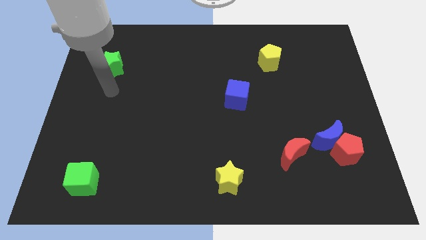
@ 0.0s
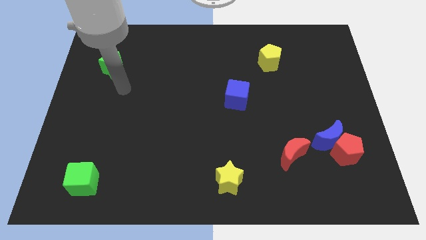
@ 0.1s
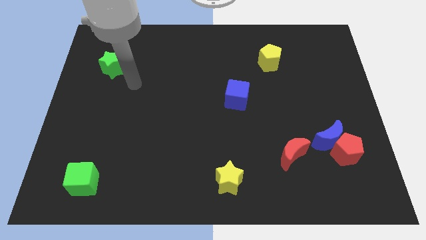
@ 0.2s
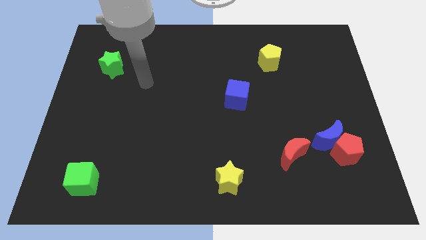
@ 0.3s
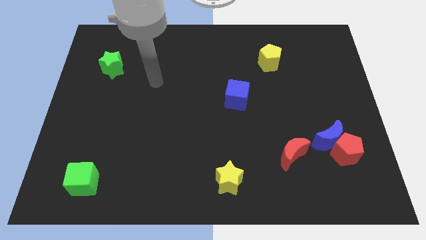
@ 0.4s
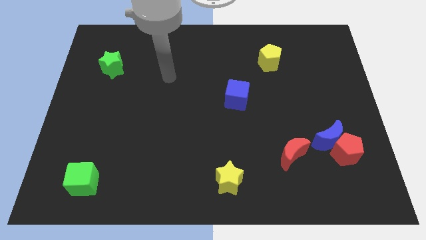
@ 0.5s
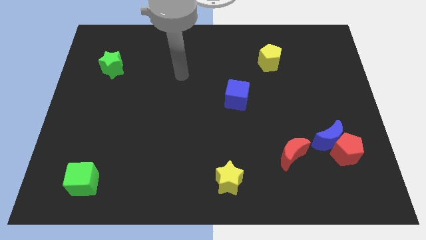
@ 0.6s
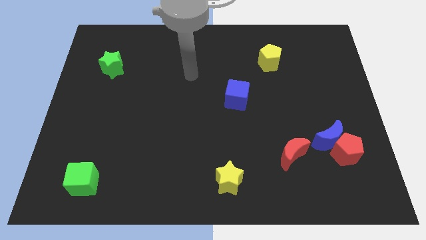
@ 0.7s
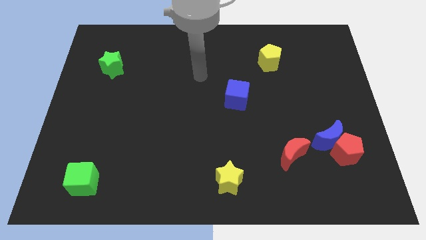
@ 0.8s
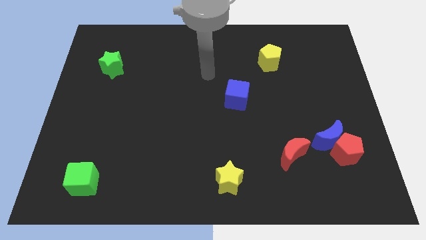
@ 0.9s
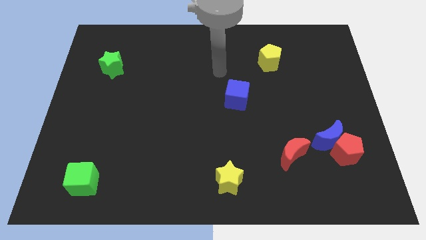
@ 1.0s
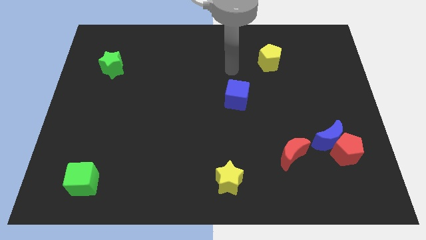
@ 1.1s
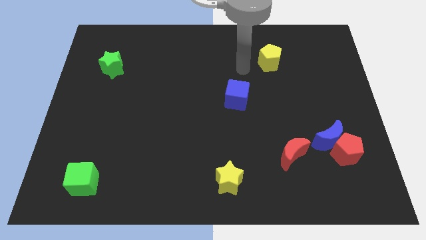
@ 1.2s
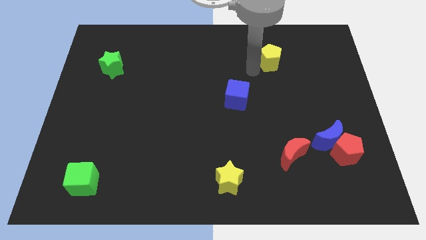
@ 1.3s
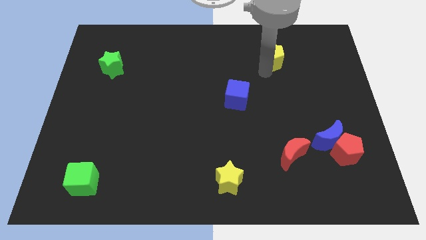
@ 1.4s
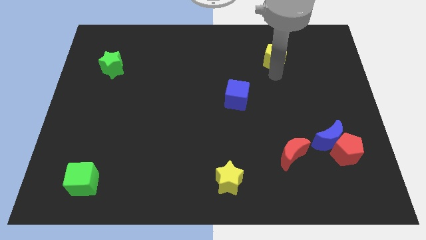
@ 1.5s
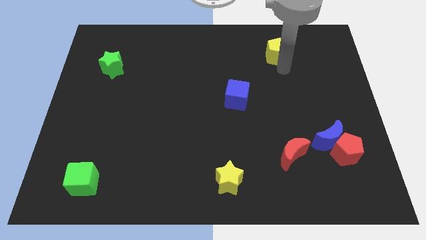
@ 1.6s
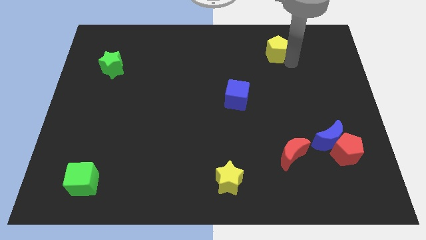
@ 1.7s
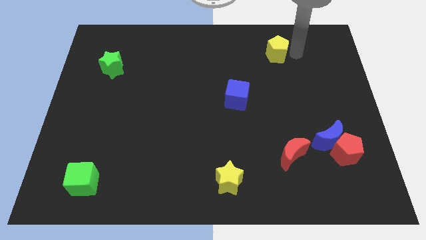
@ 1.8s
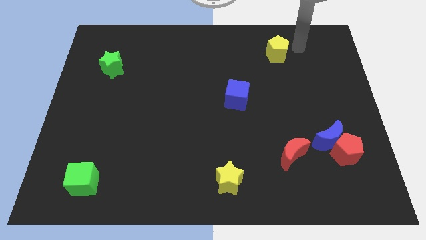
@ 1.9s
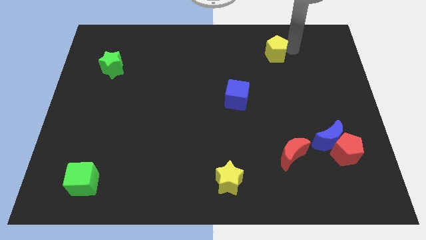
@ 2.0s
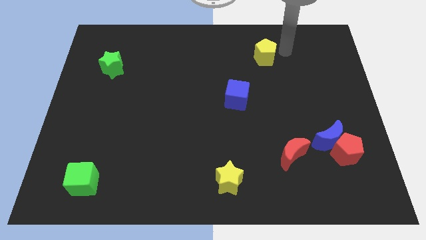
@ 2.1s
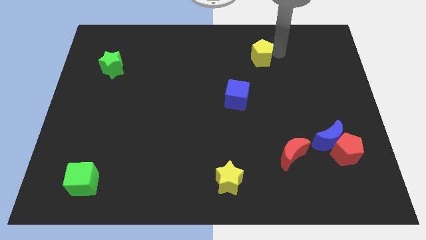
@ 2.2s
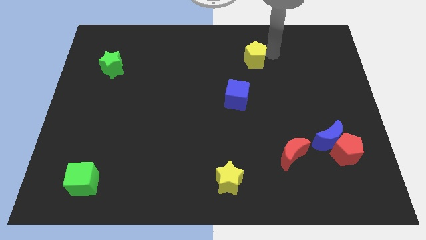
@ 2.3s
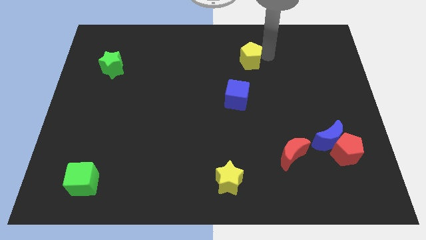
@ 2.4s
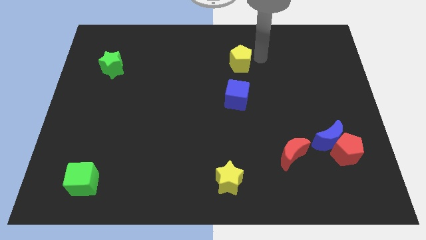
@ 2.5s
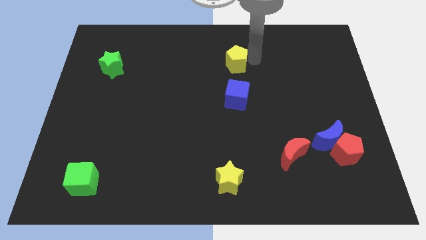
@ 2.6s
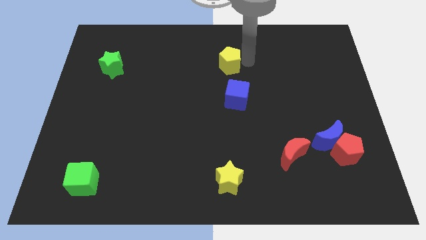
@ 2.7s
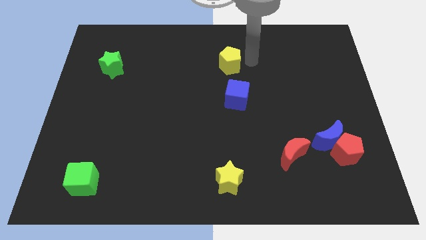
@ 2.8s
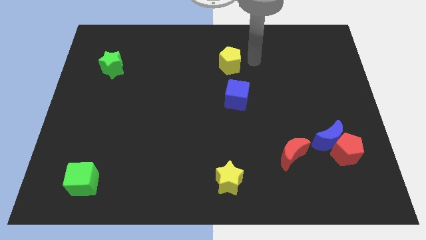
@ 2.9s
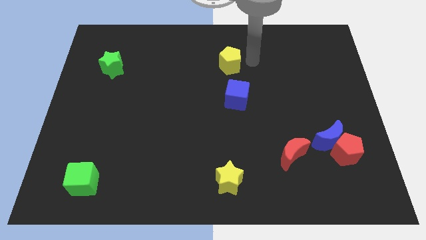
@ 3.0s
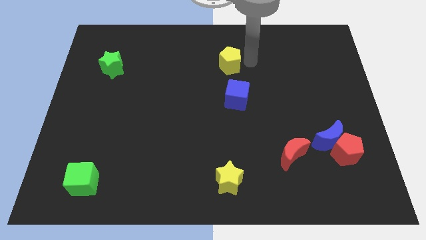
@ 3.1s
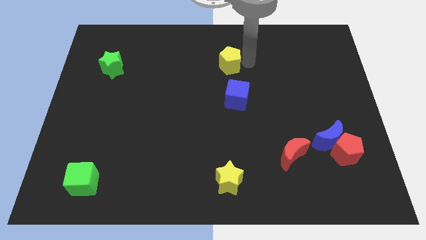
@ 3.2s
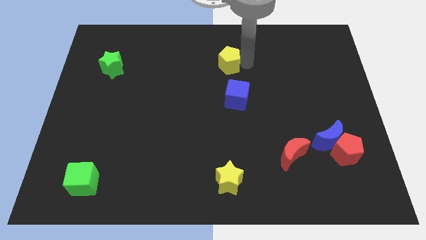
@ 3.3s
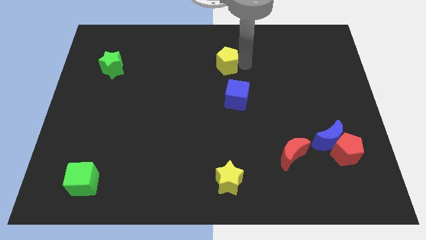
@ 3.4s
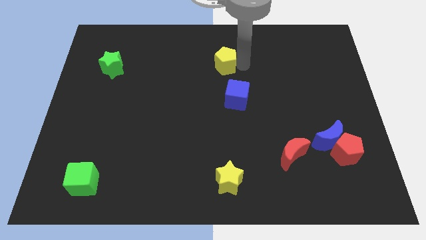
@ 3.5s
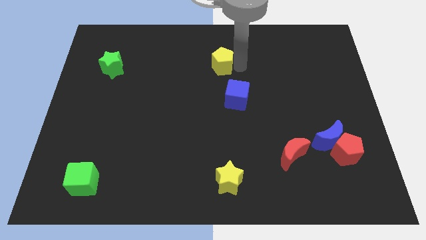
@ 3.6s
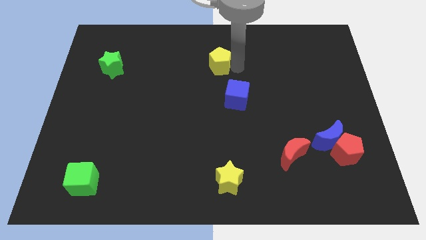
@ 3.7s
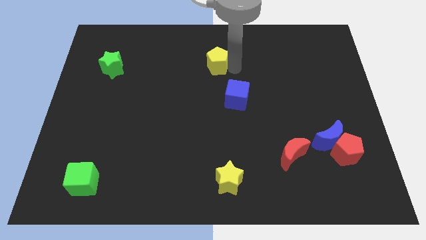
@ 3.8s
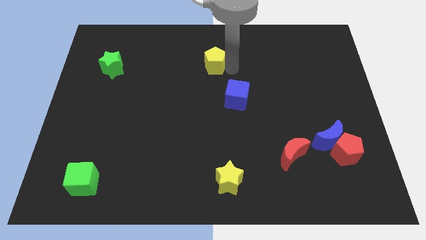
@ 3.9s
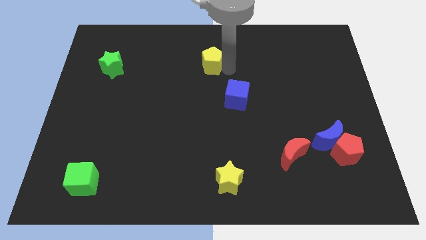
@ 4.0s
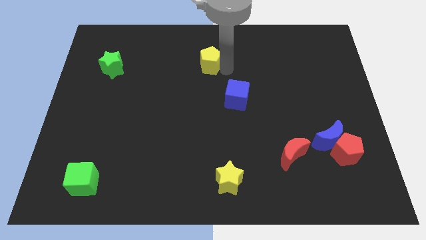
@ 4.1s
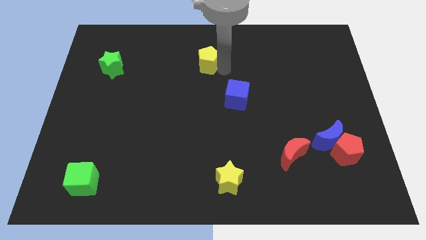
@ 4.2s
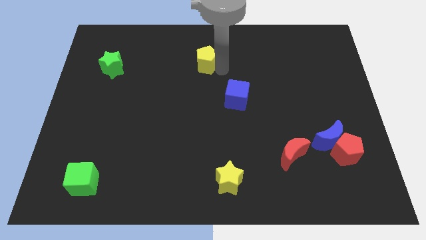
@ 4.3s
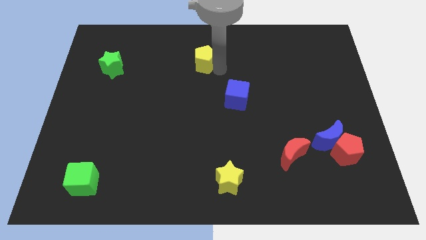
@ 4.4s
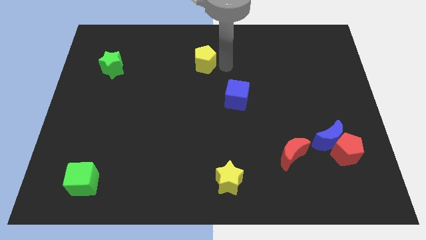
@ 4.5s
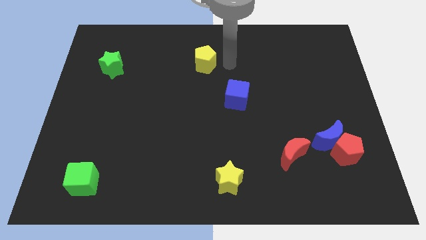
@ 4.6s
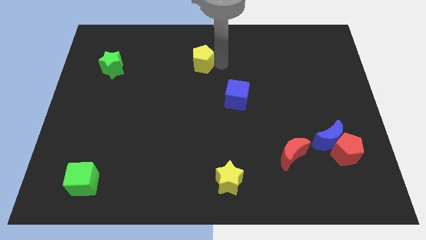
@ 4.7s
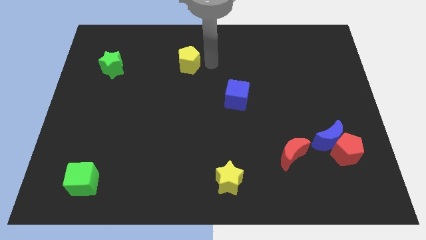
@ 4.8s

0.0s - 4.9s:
push the yellow pentagon to the left

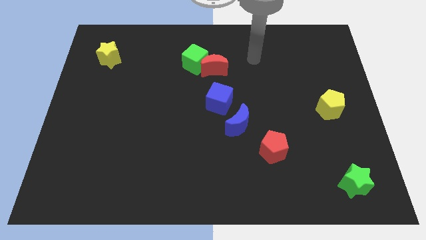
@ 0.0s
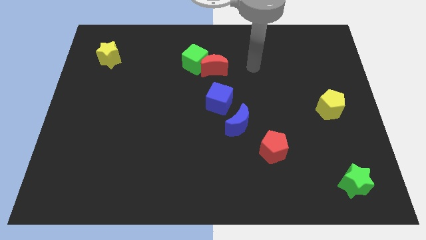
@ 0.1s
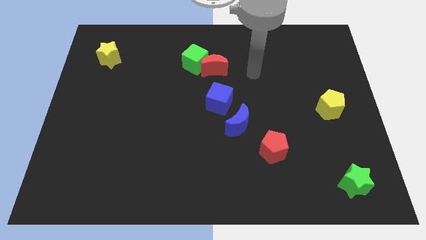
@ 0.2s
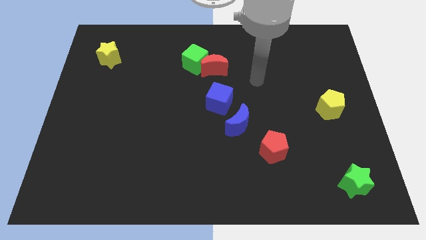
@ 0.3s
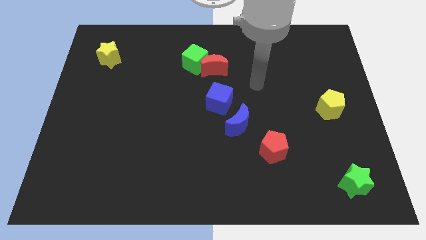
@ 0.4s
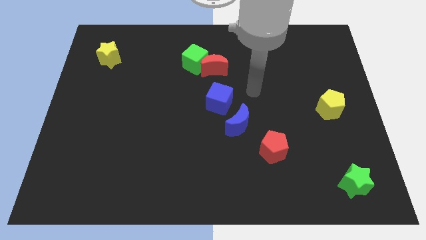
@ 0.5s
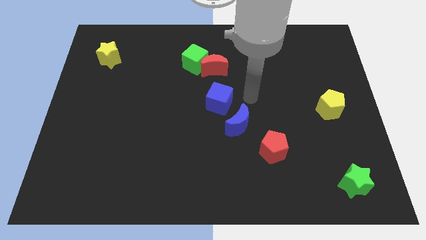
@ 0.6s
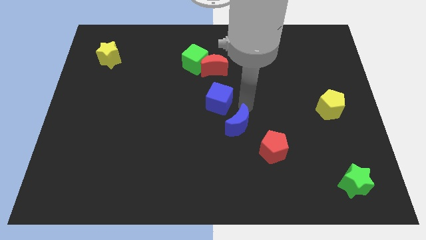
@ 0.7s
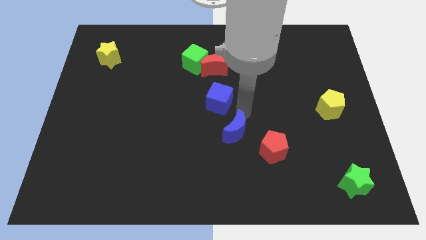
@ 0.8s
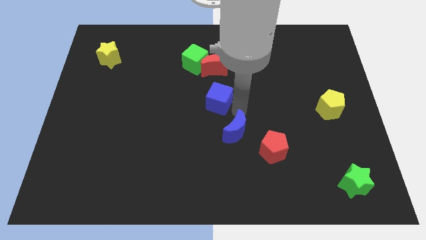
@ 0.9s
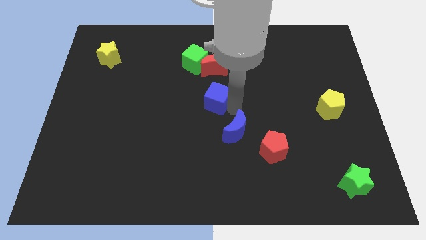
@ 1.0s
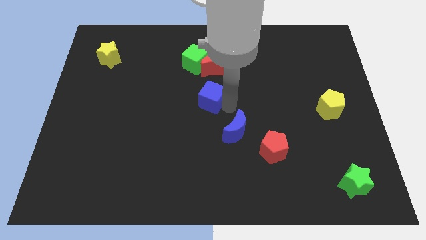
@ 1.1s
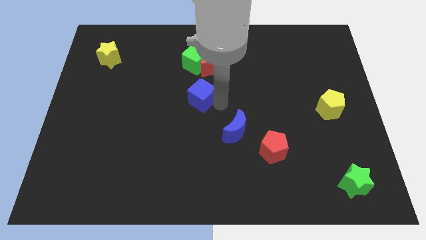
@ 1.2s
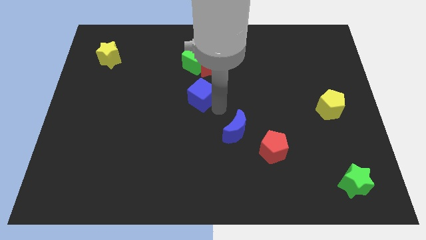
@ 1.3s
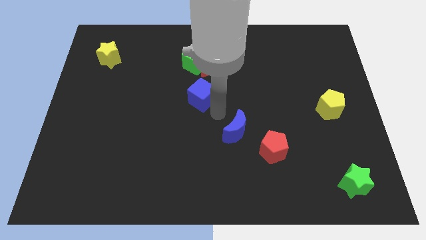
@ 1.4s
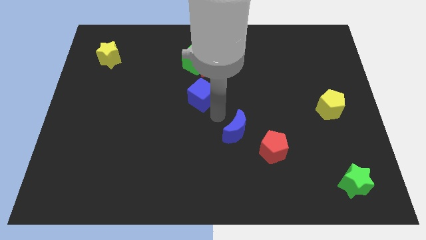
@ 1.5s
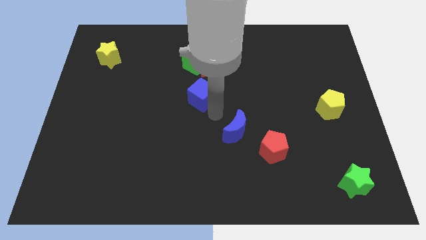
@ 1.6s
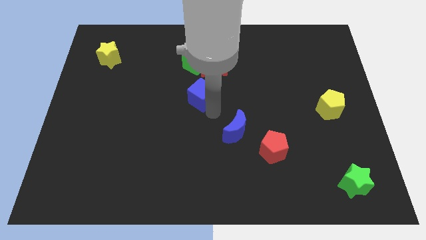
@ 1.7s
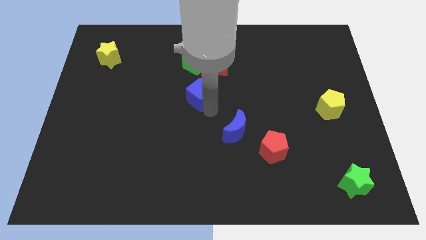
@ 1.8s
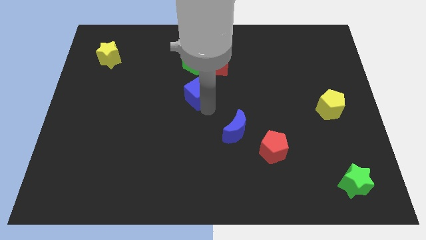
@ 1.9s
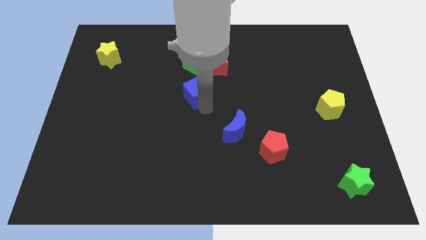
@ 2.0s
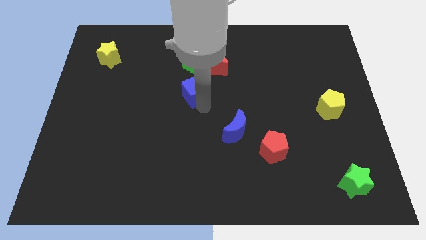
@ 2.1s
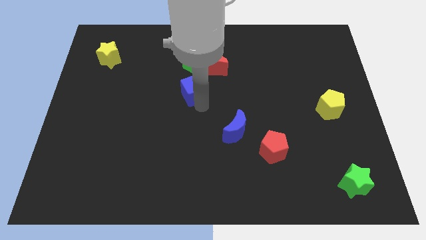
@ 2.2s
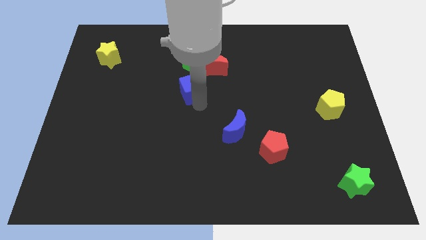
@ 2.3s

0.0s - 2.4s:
push the blue cube a little bit diagonally up and left

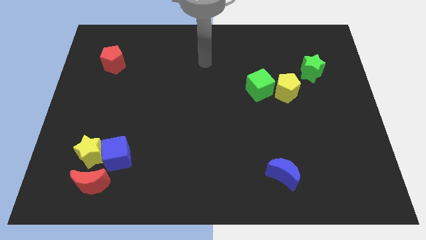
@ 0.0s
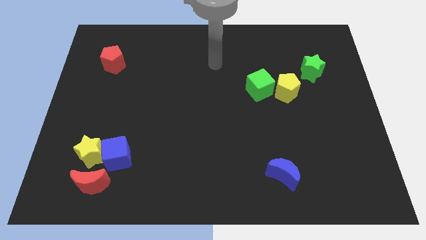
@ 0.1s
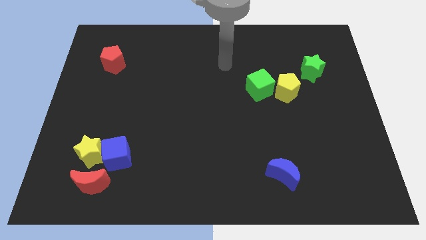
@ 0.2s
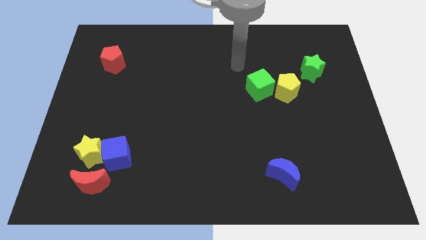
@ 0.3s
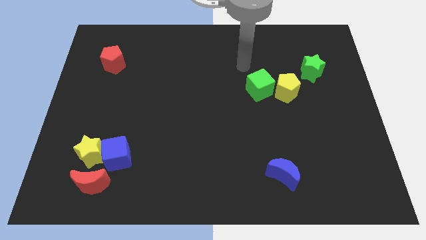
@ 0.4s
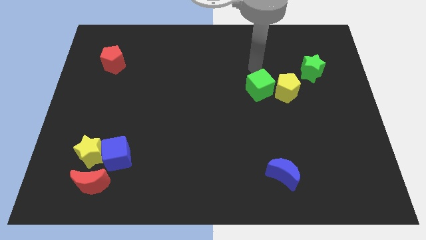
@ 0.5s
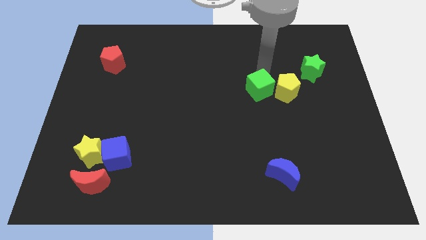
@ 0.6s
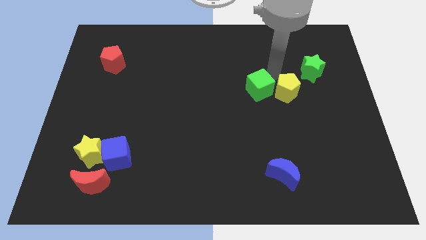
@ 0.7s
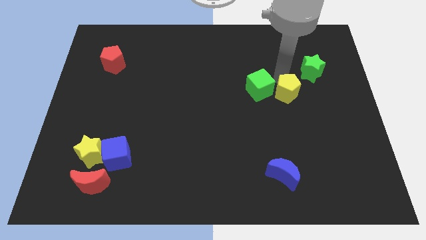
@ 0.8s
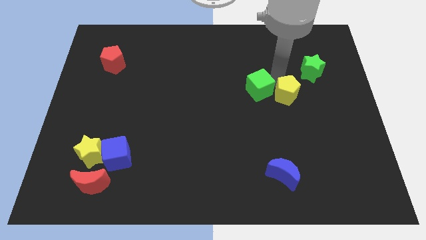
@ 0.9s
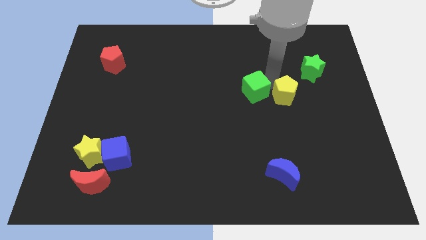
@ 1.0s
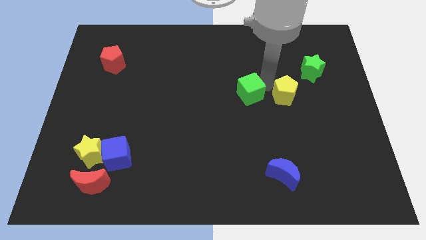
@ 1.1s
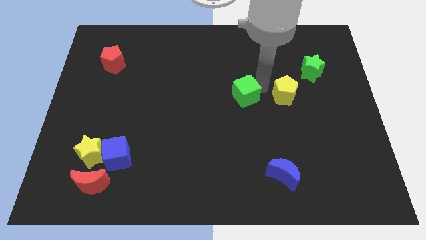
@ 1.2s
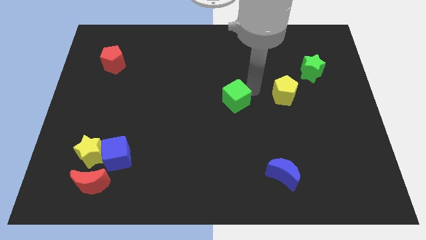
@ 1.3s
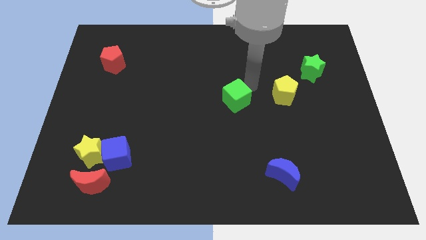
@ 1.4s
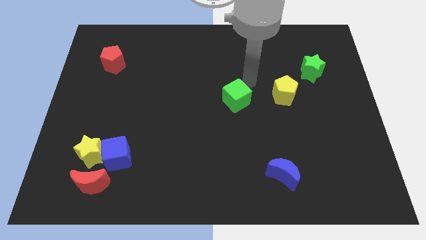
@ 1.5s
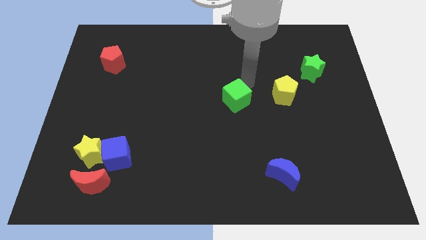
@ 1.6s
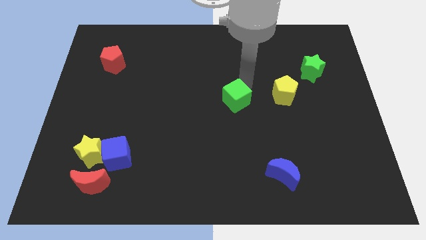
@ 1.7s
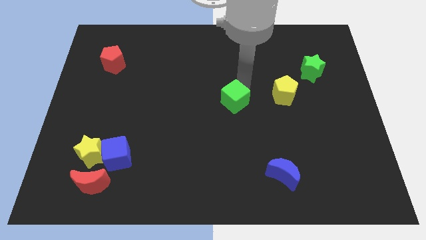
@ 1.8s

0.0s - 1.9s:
slightly push the green cube downwards and then left
